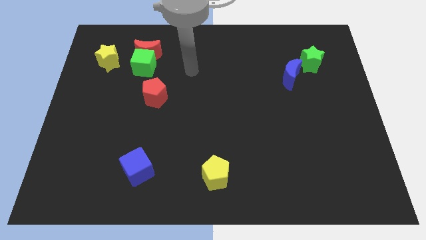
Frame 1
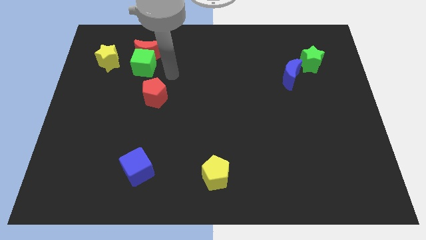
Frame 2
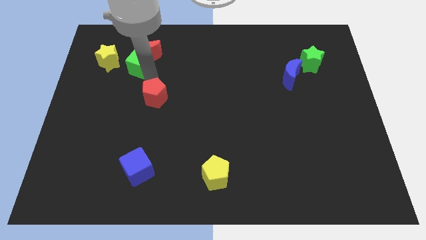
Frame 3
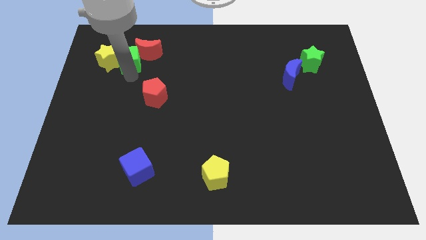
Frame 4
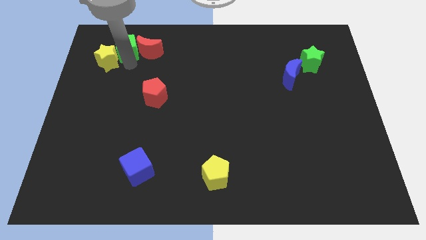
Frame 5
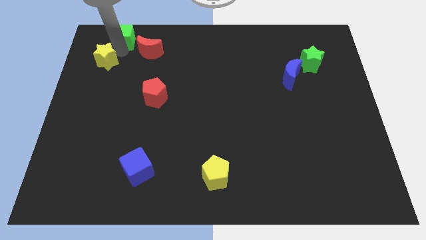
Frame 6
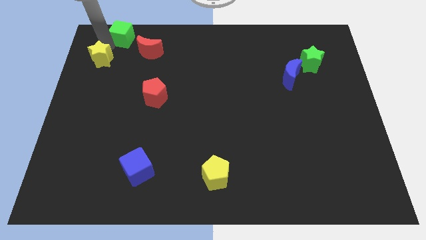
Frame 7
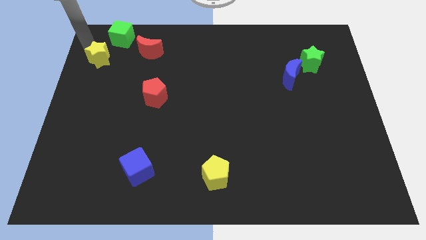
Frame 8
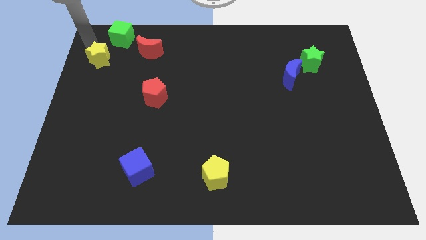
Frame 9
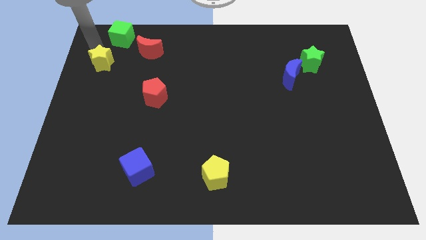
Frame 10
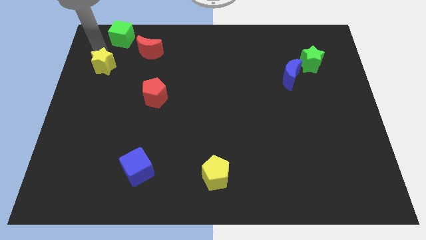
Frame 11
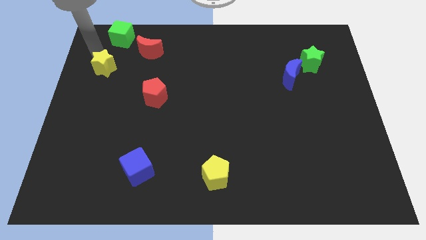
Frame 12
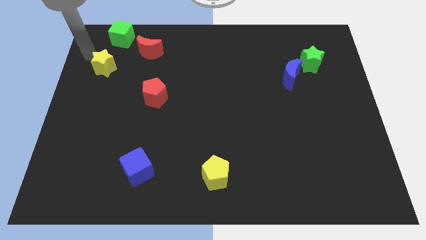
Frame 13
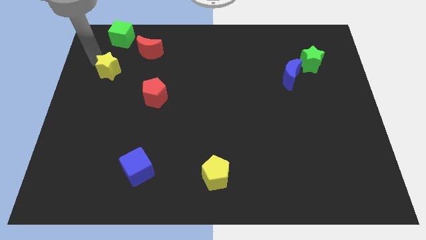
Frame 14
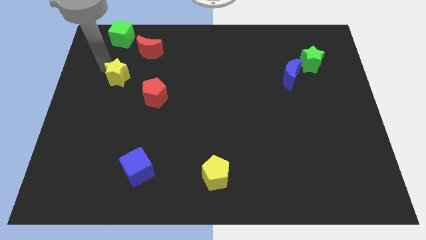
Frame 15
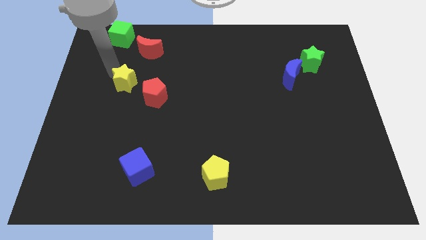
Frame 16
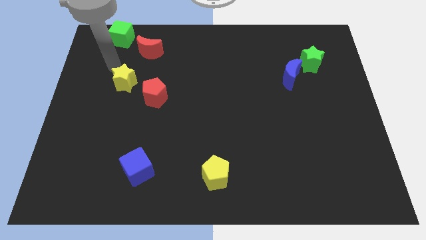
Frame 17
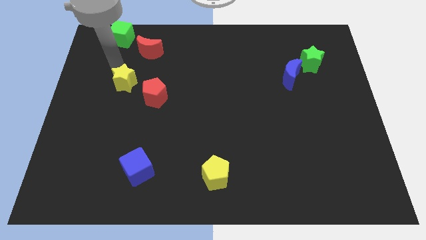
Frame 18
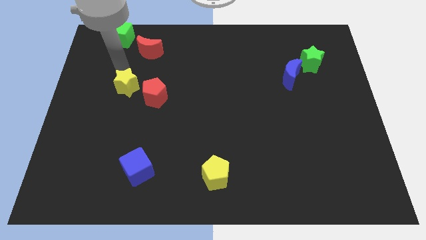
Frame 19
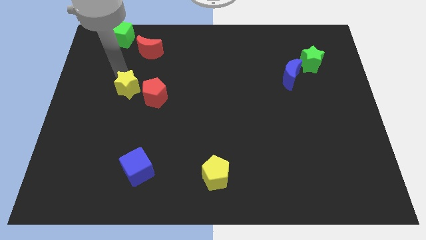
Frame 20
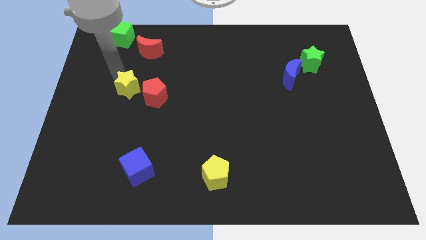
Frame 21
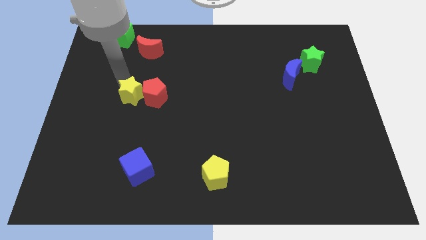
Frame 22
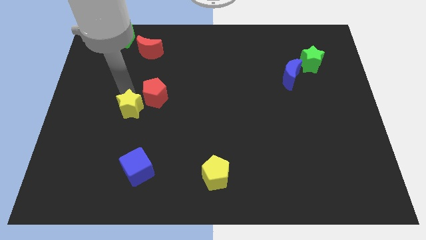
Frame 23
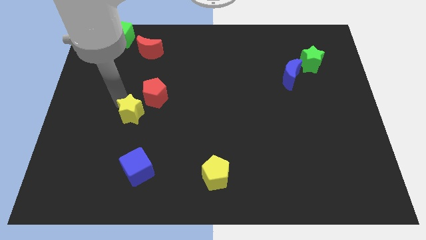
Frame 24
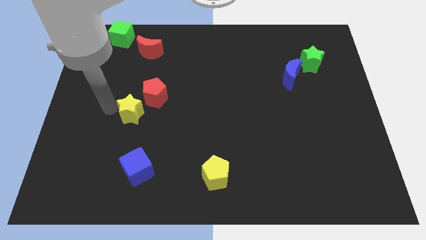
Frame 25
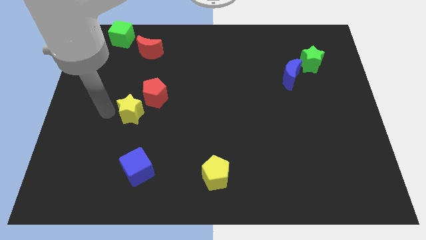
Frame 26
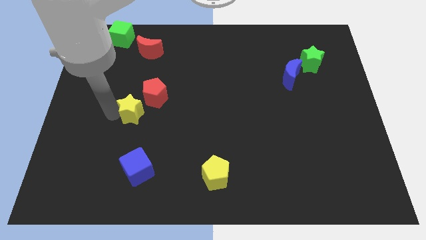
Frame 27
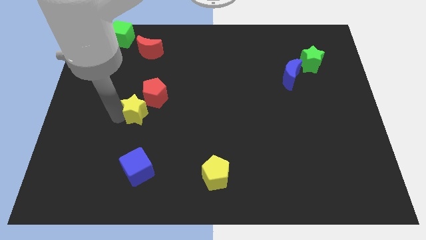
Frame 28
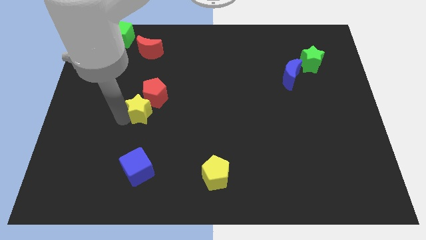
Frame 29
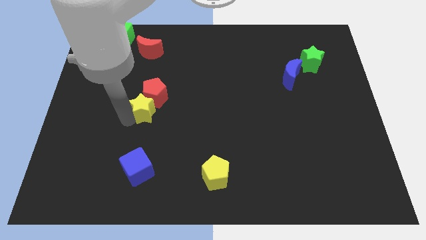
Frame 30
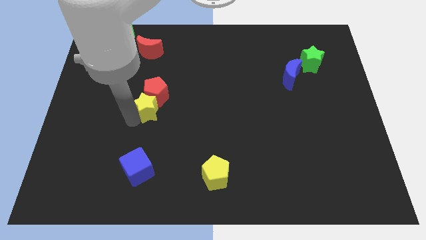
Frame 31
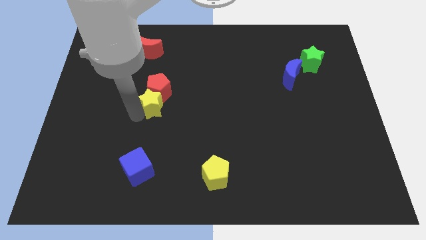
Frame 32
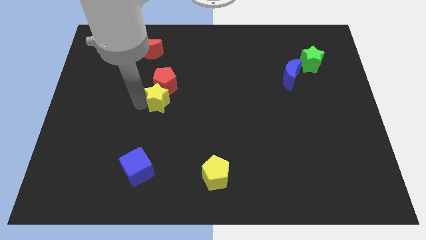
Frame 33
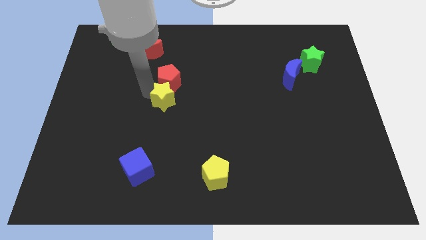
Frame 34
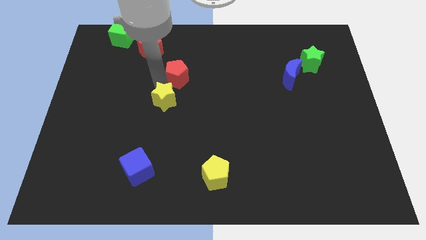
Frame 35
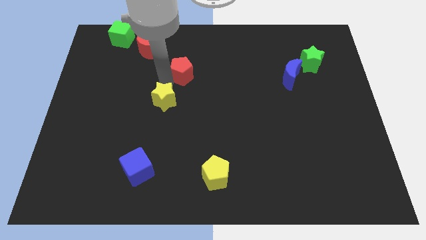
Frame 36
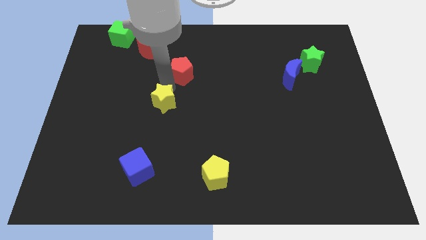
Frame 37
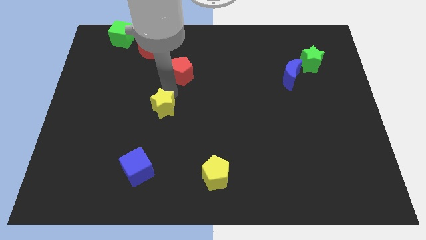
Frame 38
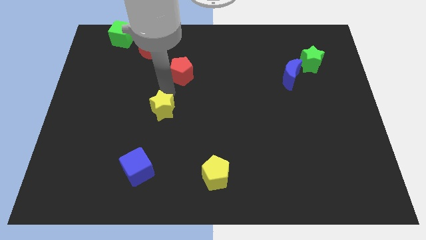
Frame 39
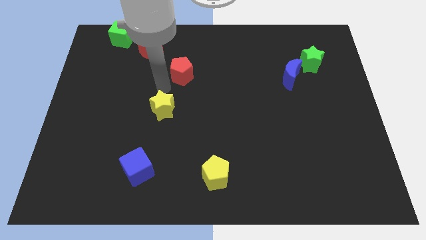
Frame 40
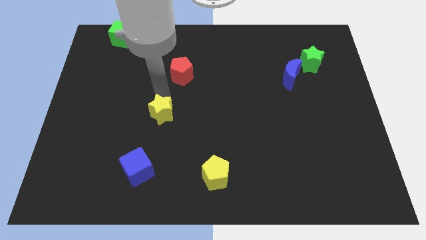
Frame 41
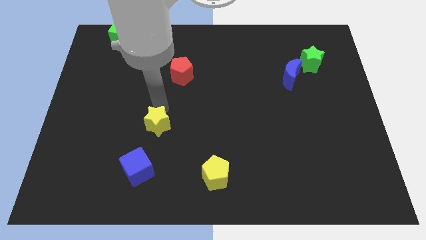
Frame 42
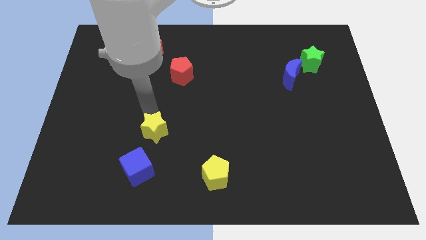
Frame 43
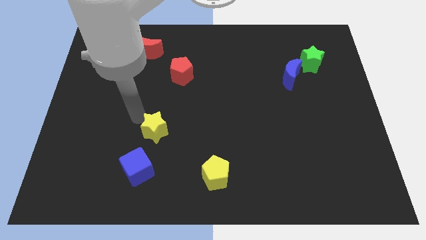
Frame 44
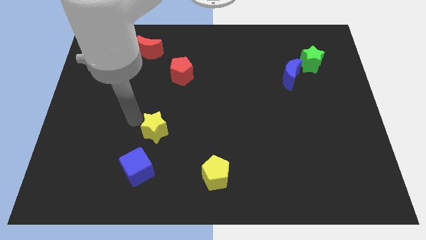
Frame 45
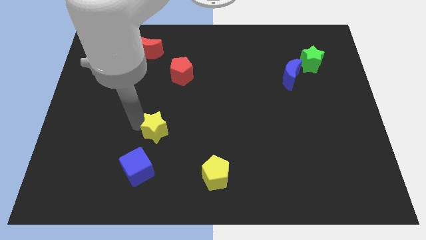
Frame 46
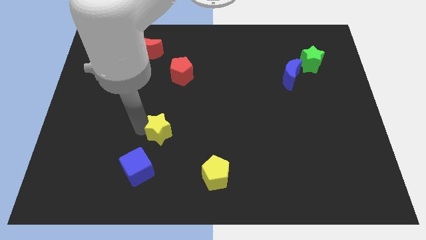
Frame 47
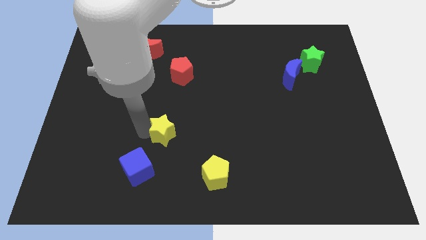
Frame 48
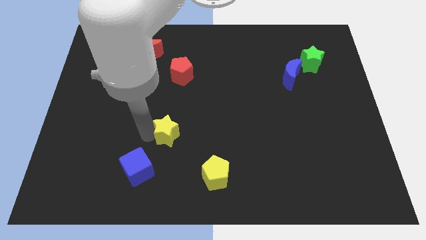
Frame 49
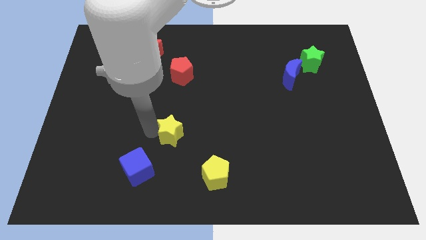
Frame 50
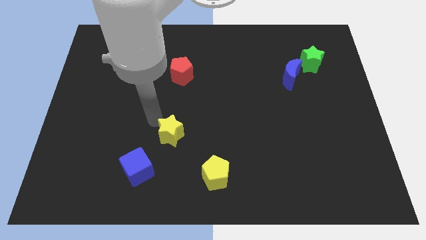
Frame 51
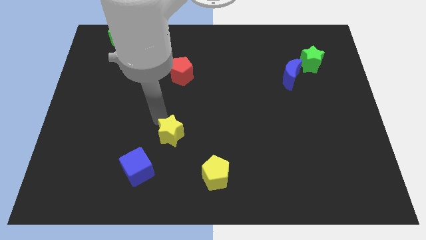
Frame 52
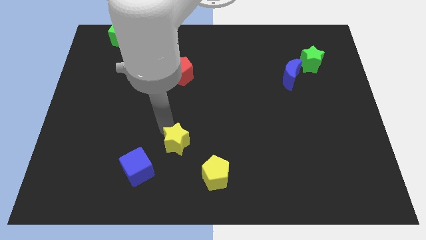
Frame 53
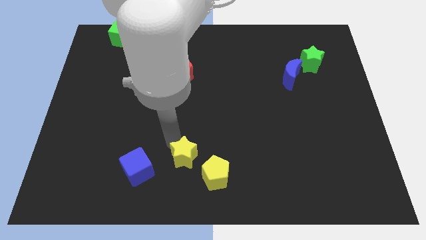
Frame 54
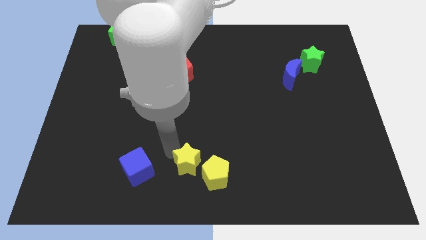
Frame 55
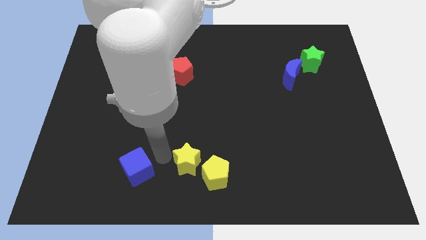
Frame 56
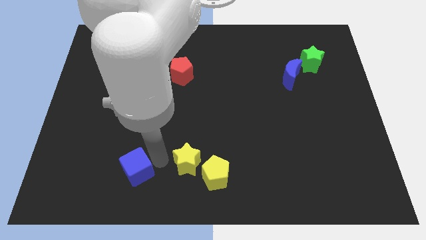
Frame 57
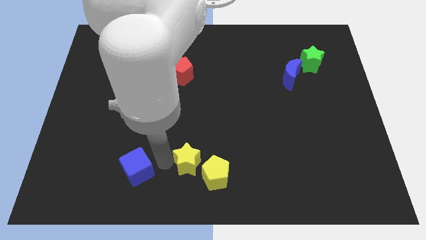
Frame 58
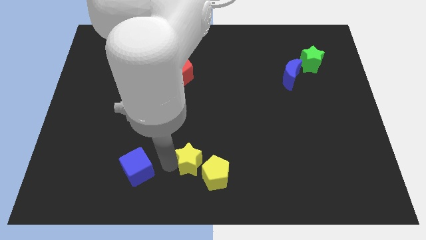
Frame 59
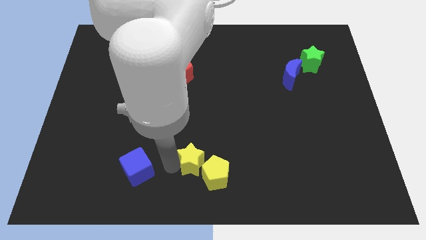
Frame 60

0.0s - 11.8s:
put the yellow star next to the yellow pentagon

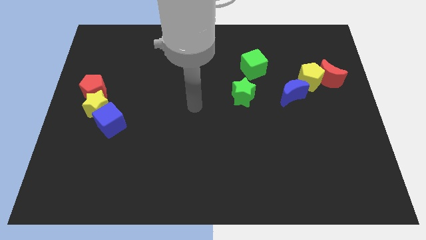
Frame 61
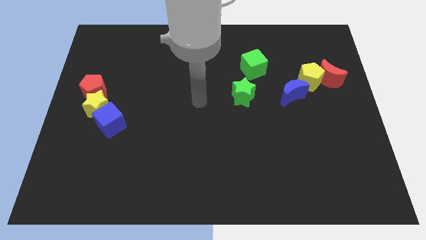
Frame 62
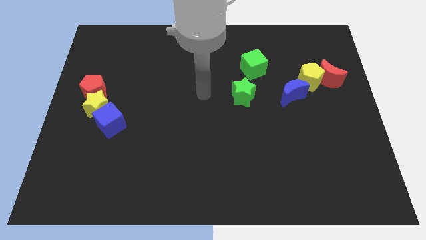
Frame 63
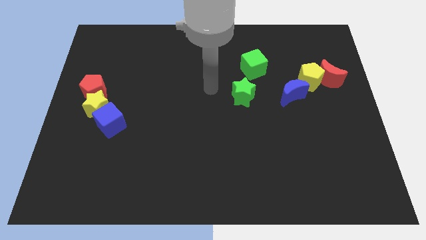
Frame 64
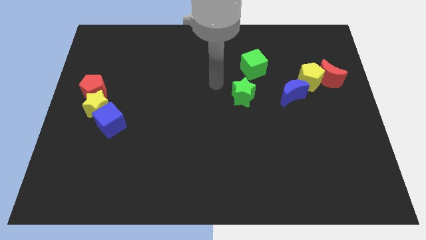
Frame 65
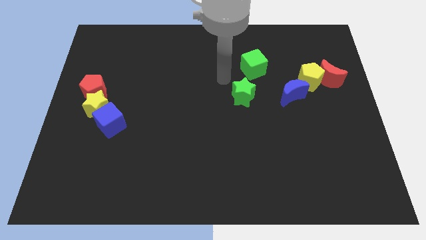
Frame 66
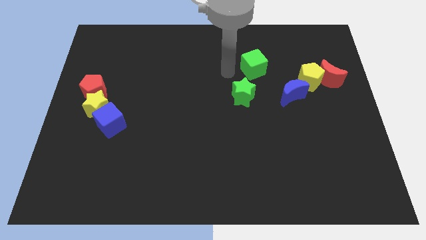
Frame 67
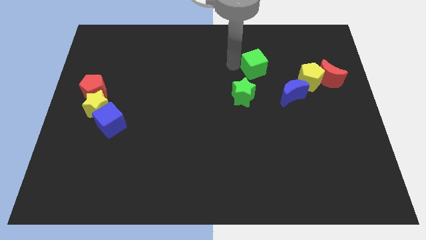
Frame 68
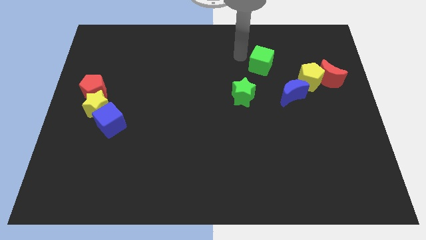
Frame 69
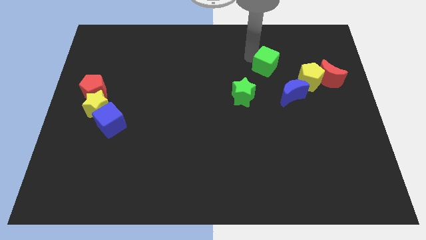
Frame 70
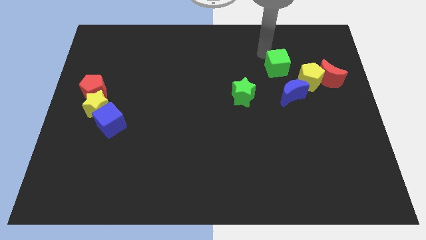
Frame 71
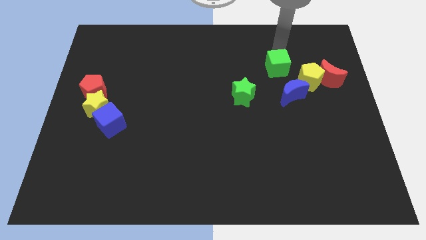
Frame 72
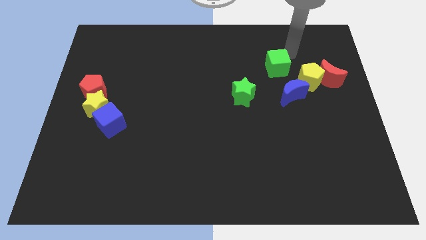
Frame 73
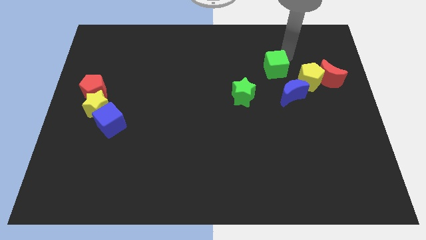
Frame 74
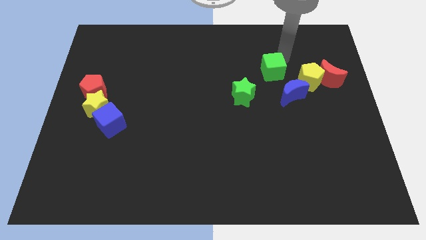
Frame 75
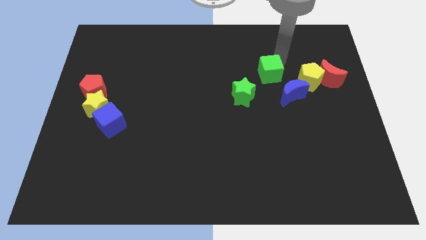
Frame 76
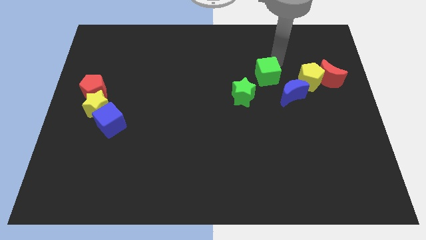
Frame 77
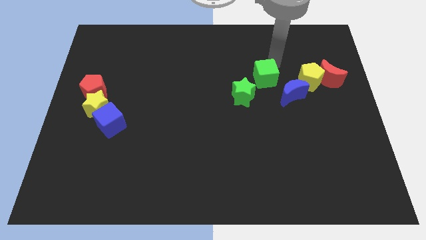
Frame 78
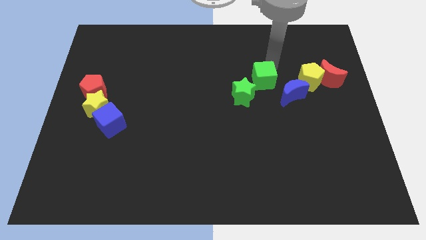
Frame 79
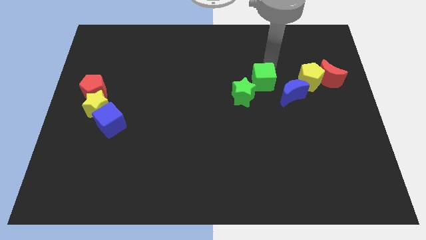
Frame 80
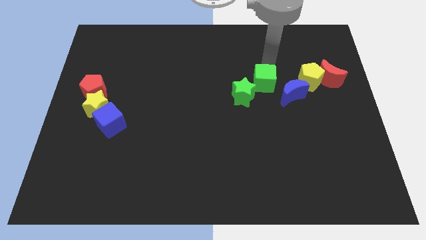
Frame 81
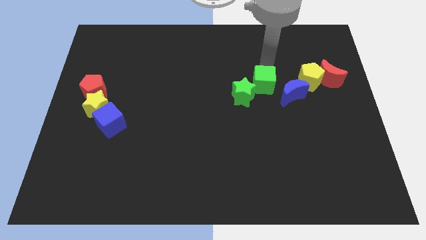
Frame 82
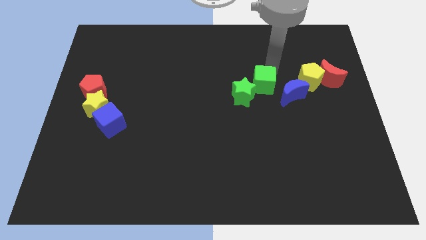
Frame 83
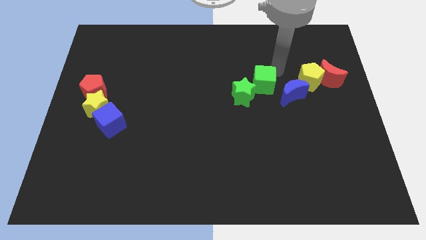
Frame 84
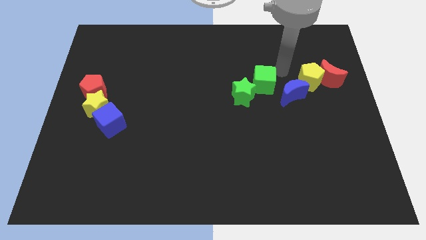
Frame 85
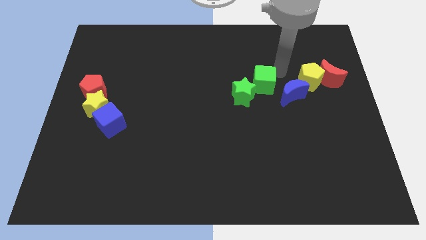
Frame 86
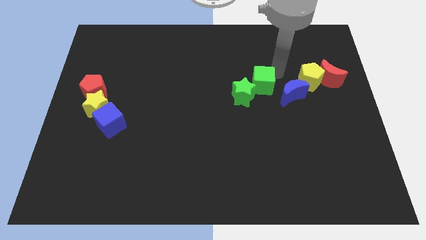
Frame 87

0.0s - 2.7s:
move the green cube next to the green star
